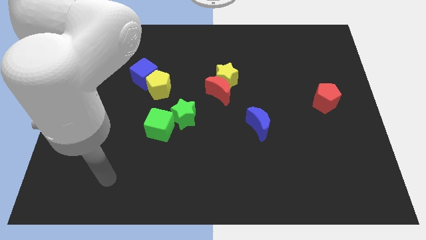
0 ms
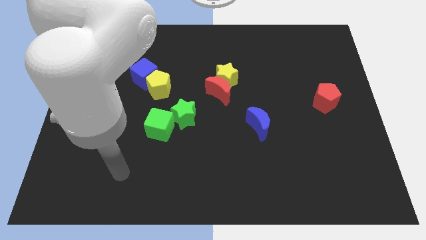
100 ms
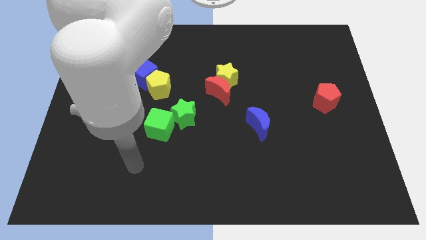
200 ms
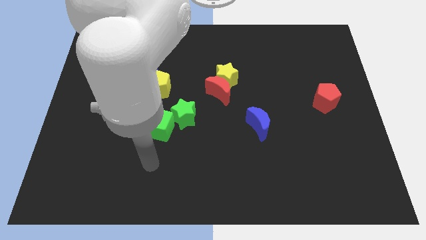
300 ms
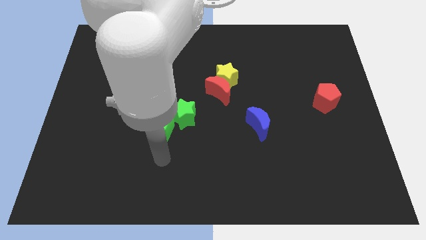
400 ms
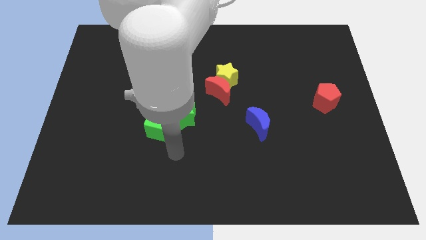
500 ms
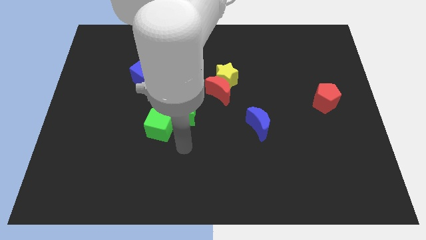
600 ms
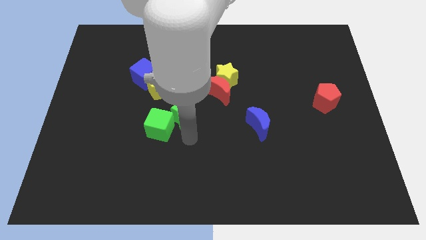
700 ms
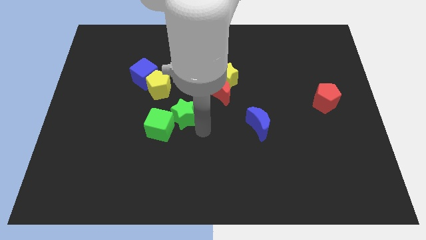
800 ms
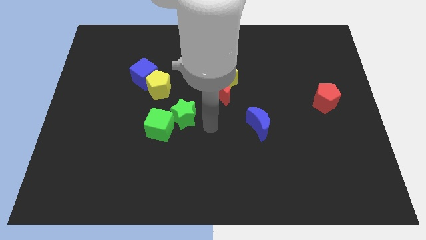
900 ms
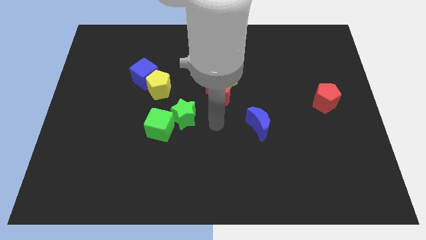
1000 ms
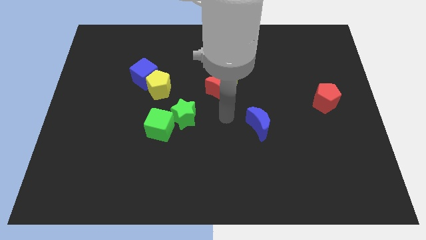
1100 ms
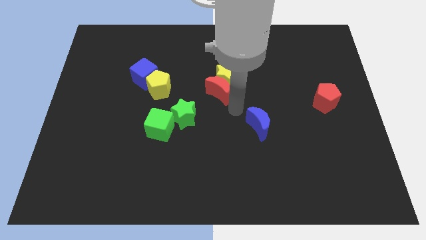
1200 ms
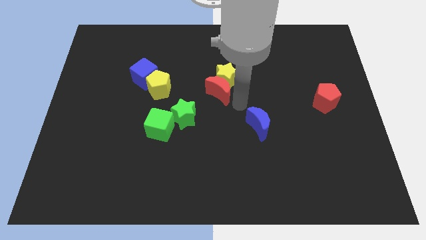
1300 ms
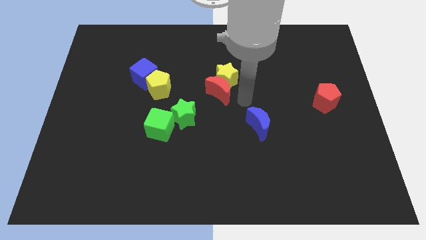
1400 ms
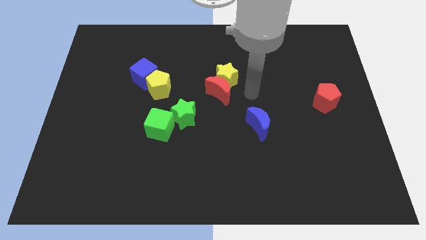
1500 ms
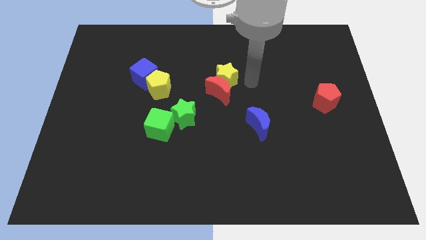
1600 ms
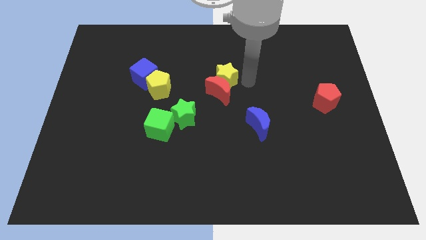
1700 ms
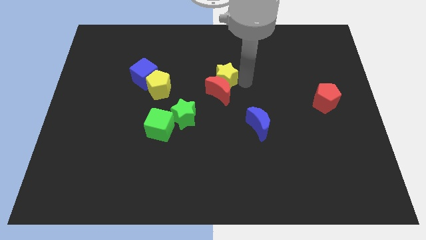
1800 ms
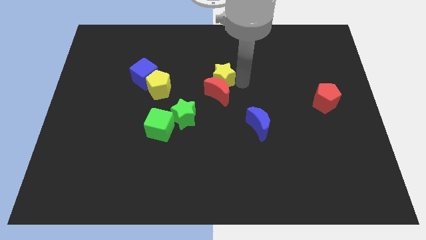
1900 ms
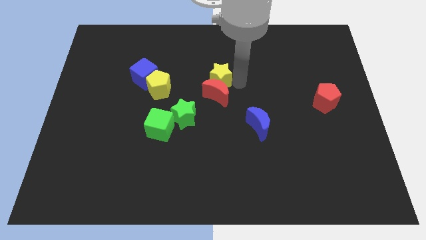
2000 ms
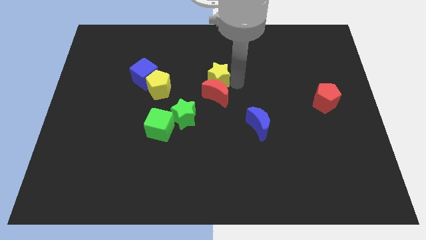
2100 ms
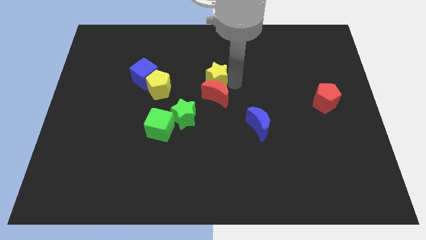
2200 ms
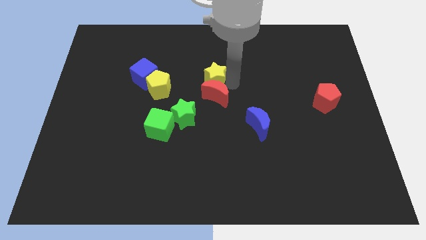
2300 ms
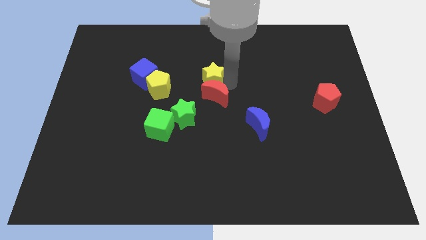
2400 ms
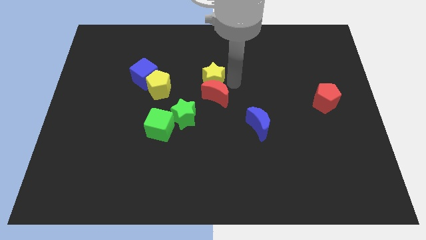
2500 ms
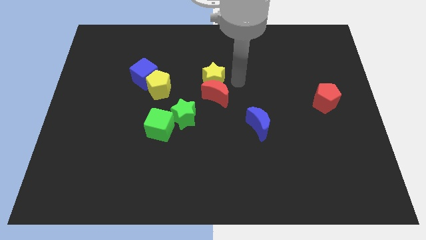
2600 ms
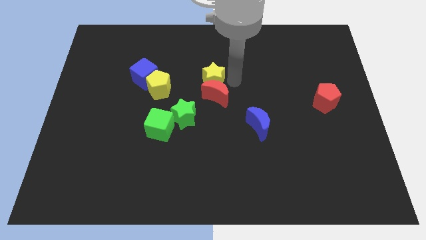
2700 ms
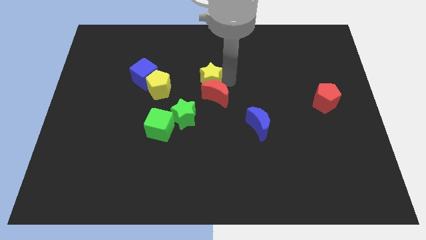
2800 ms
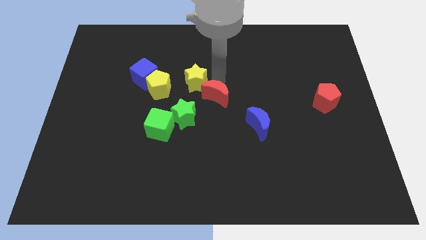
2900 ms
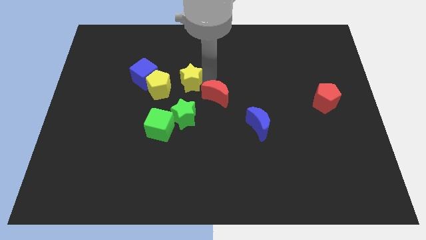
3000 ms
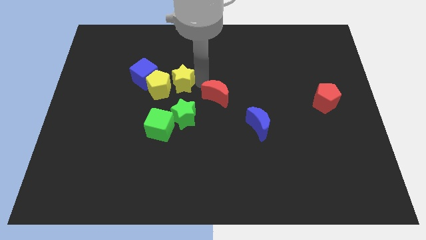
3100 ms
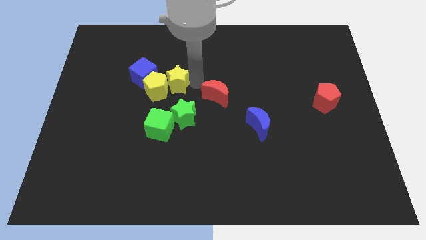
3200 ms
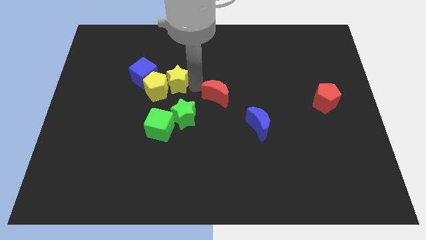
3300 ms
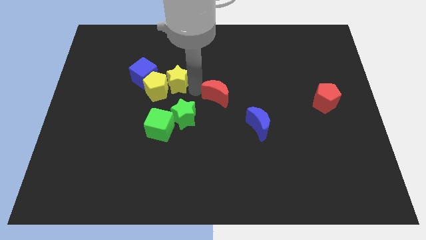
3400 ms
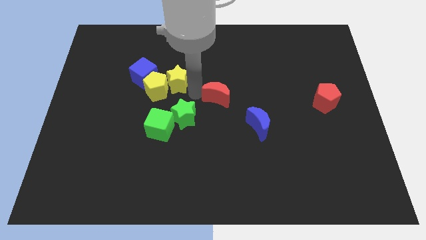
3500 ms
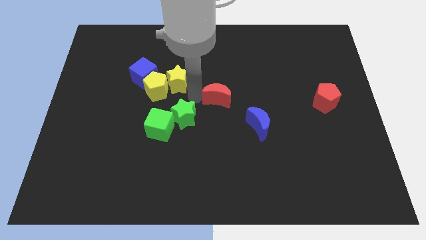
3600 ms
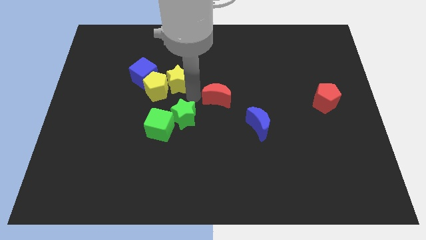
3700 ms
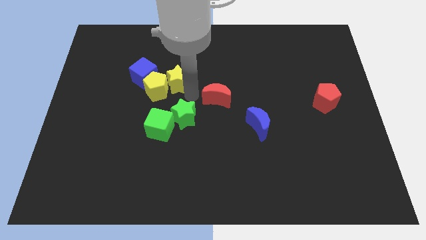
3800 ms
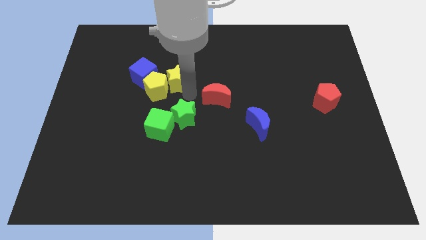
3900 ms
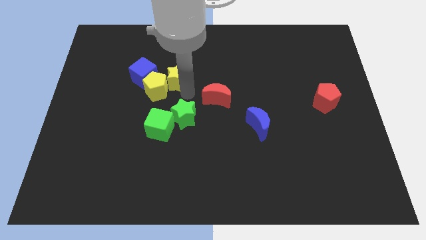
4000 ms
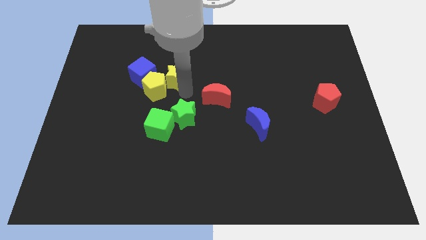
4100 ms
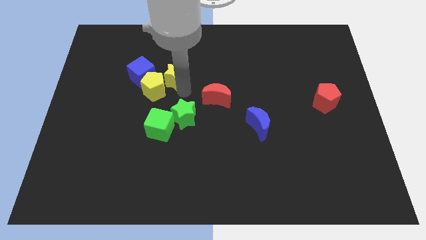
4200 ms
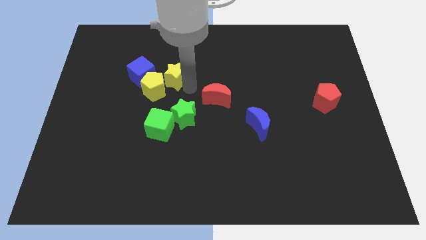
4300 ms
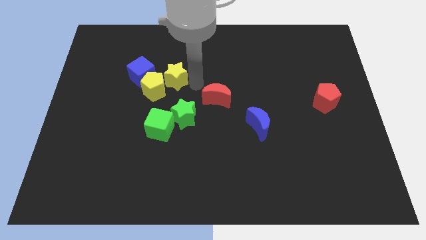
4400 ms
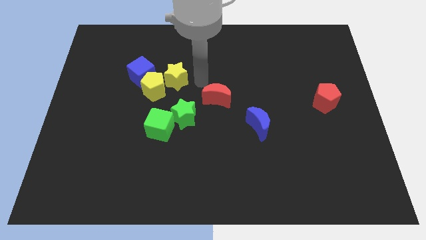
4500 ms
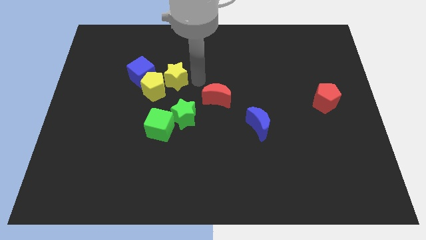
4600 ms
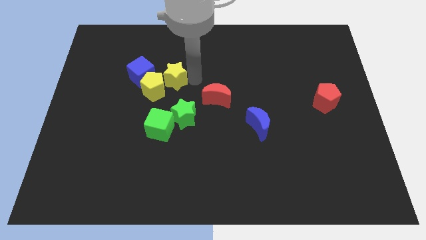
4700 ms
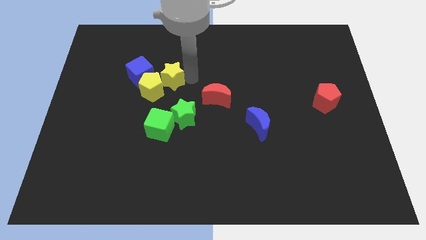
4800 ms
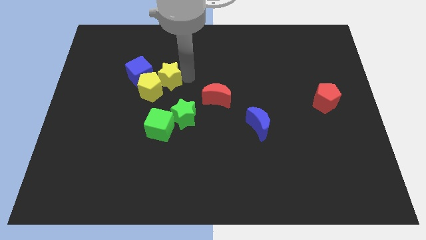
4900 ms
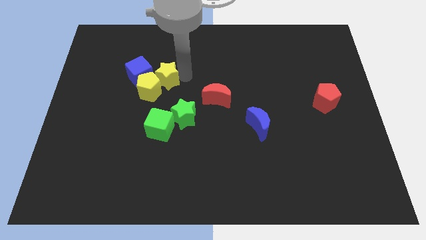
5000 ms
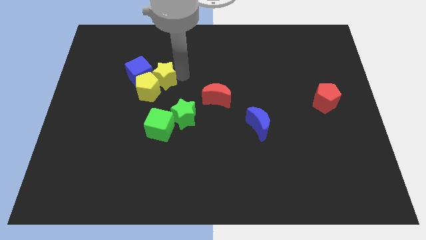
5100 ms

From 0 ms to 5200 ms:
slide the yellow star towards the blue cube

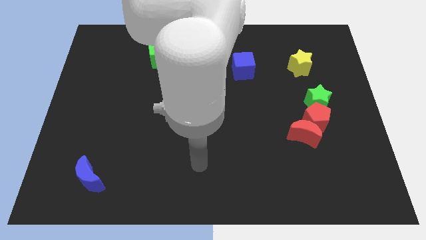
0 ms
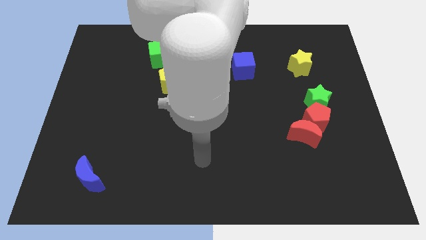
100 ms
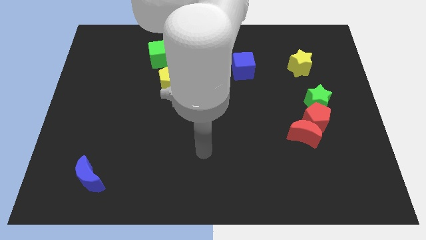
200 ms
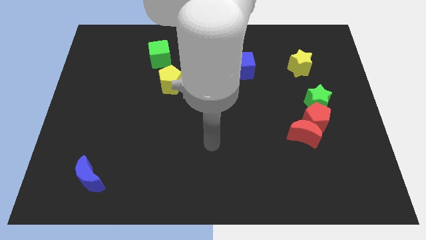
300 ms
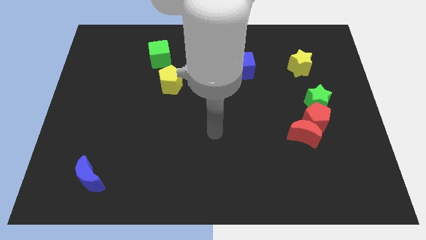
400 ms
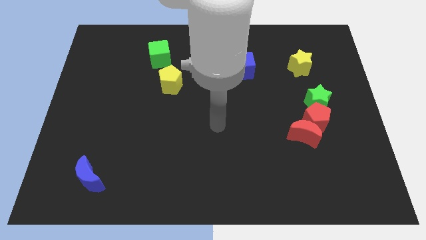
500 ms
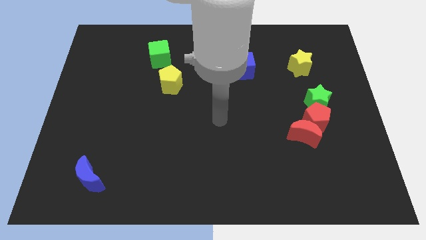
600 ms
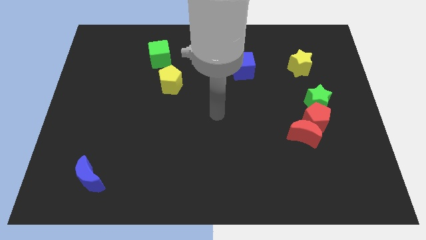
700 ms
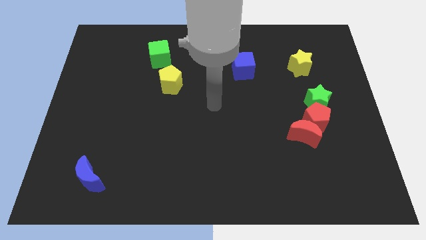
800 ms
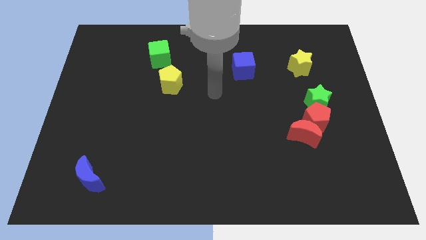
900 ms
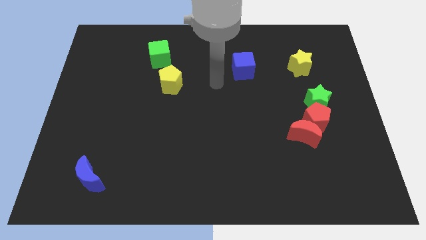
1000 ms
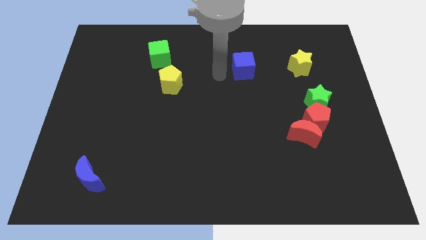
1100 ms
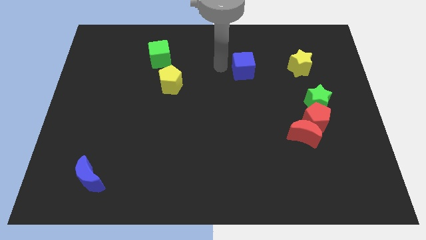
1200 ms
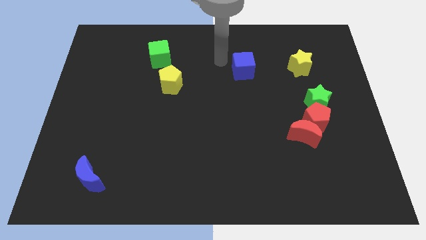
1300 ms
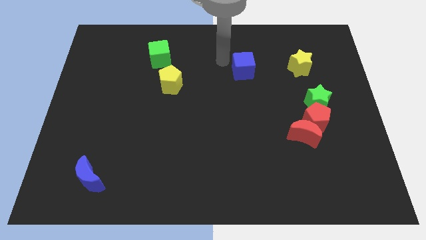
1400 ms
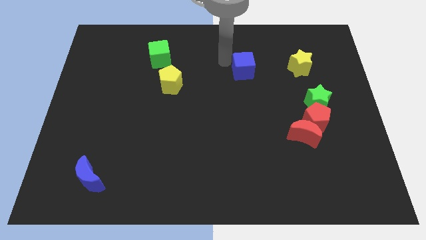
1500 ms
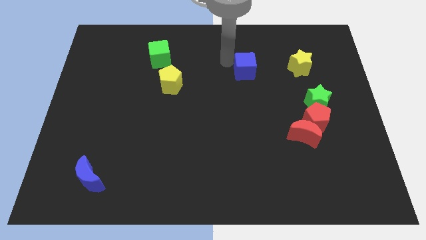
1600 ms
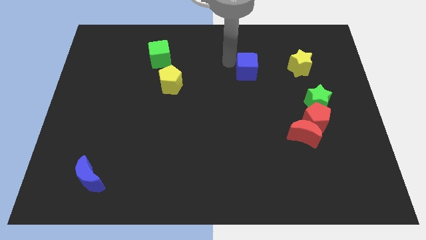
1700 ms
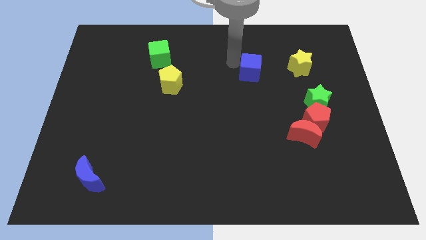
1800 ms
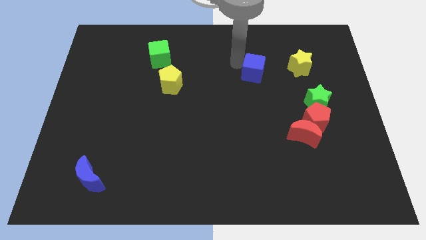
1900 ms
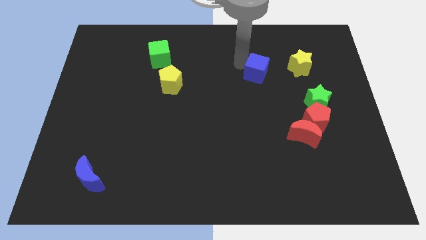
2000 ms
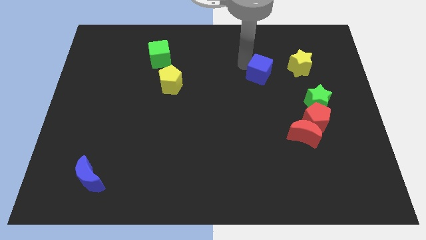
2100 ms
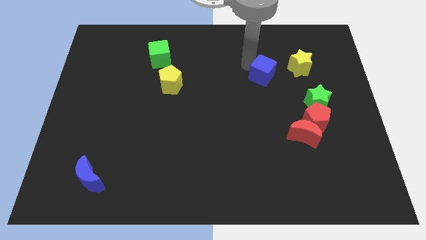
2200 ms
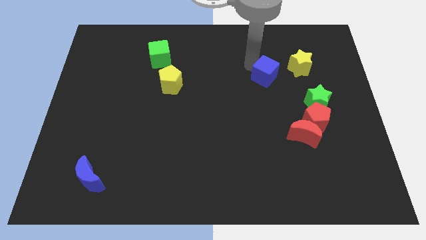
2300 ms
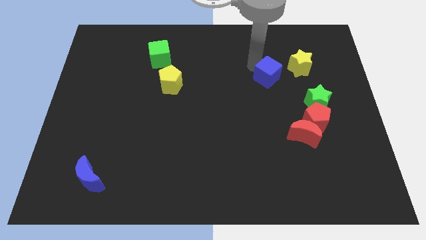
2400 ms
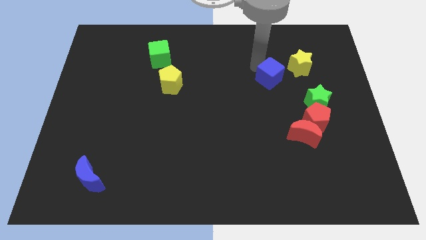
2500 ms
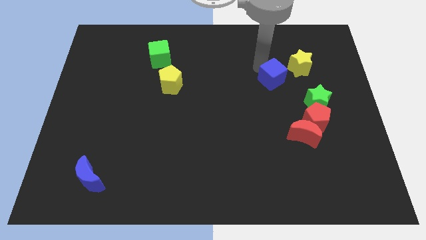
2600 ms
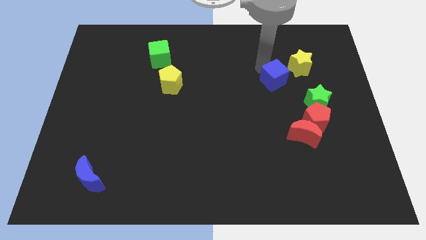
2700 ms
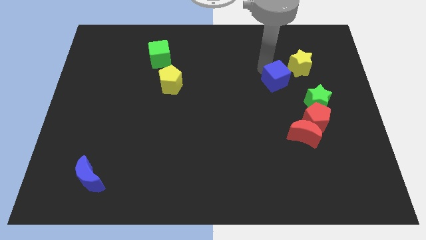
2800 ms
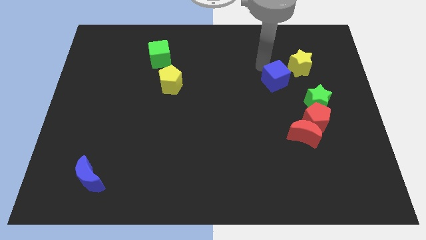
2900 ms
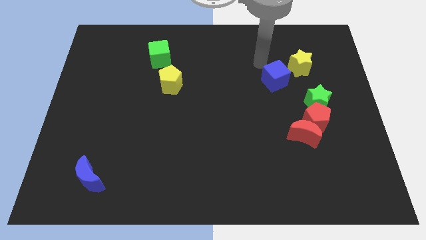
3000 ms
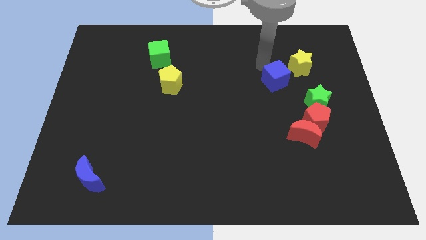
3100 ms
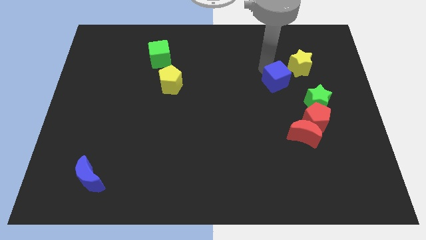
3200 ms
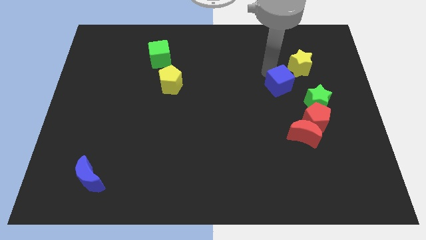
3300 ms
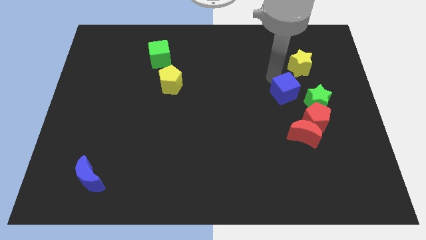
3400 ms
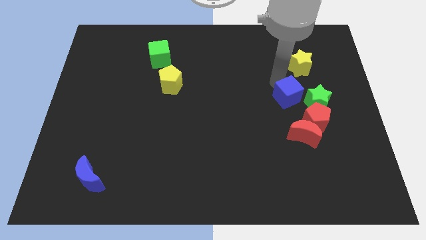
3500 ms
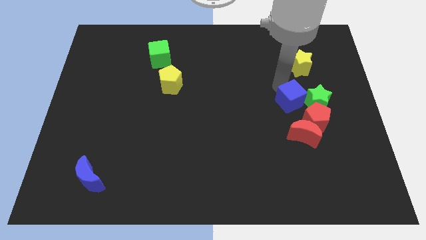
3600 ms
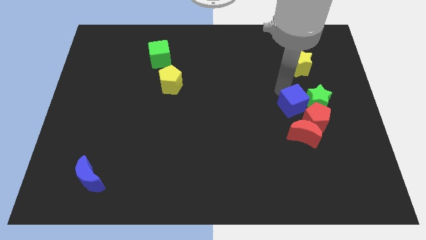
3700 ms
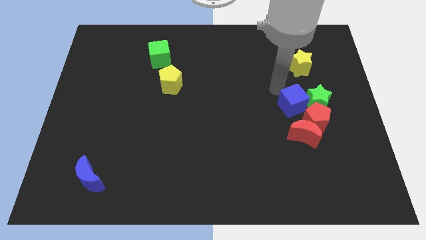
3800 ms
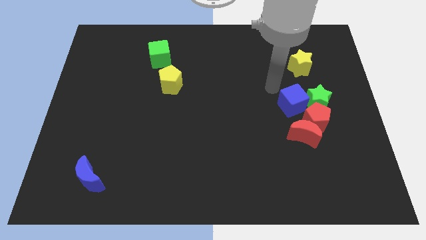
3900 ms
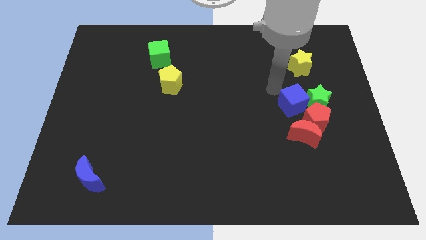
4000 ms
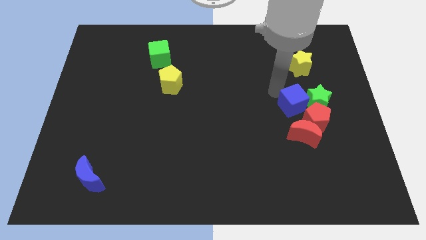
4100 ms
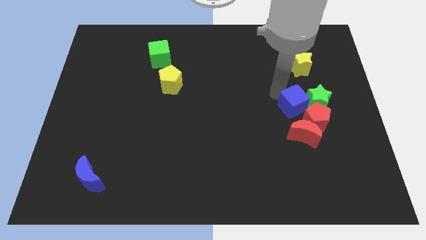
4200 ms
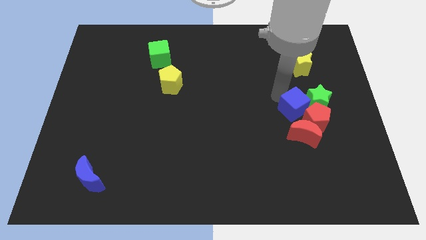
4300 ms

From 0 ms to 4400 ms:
slide the blue cube to the red pentagon
